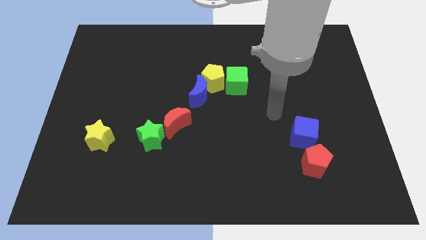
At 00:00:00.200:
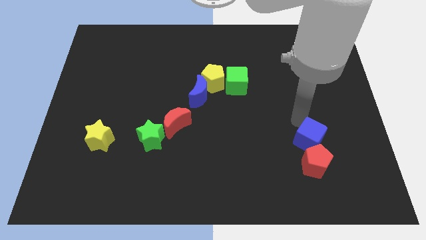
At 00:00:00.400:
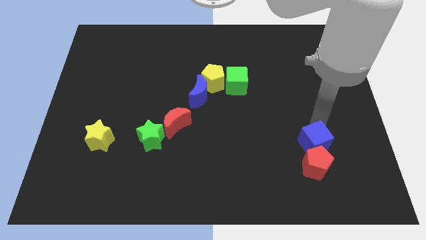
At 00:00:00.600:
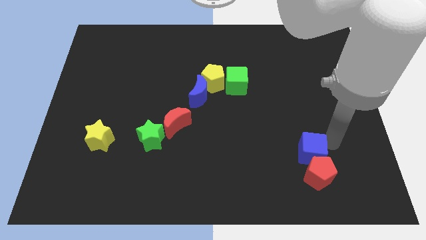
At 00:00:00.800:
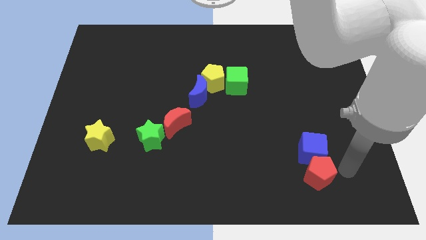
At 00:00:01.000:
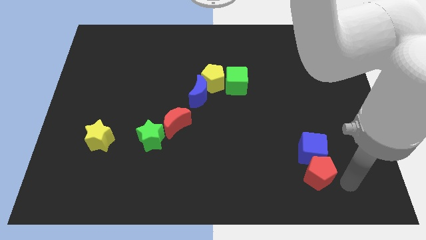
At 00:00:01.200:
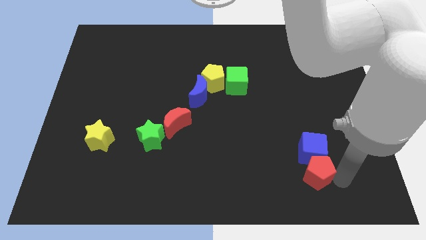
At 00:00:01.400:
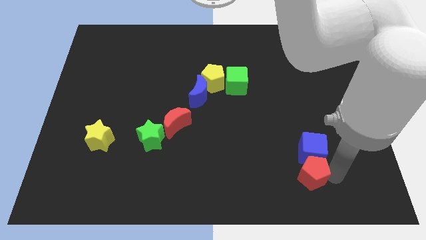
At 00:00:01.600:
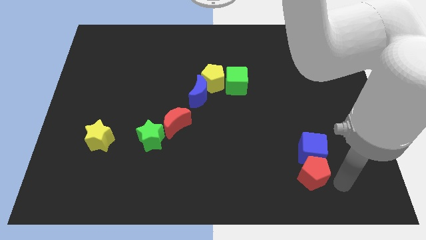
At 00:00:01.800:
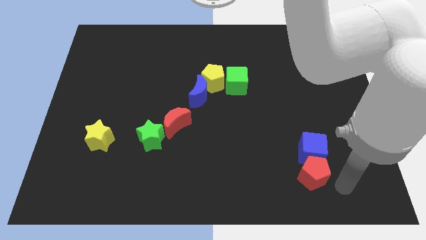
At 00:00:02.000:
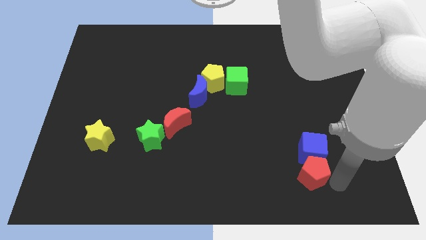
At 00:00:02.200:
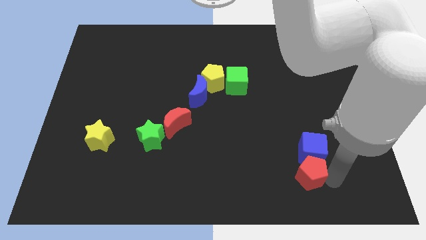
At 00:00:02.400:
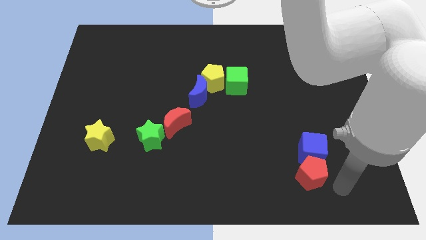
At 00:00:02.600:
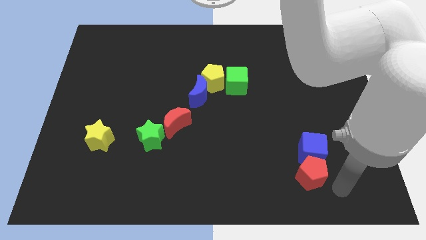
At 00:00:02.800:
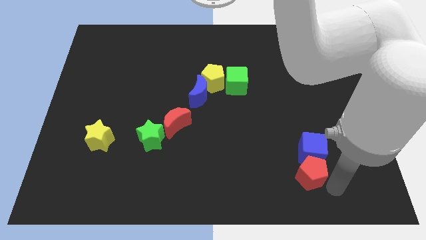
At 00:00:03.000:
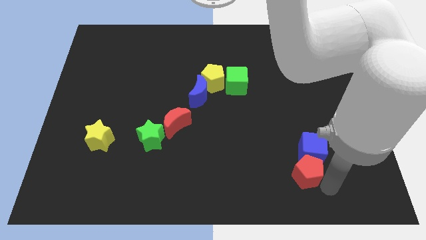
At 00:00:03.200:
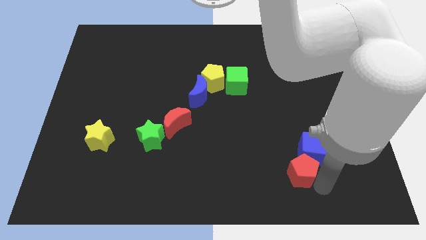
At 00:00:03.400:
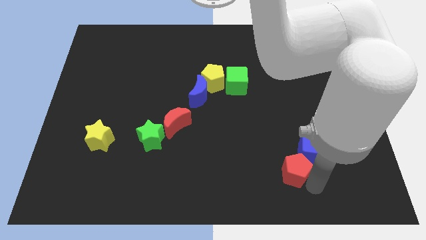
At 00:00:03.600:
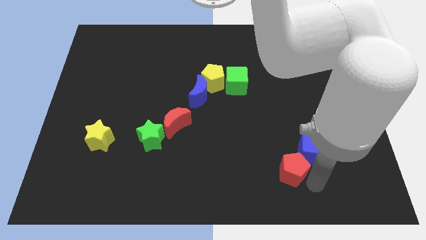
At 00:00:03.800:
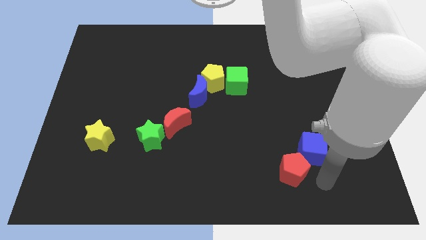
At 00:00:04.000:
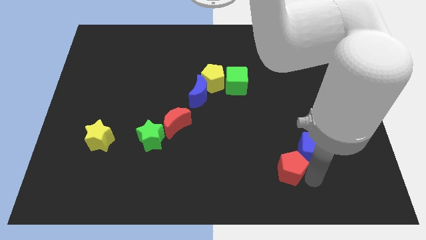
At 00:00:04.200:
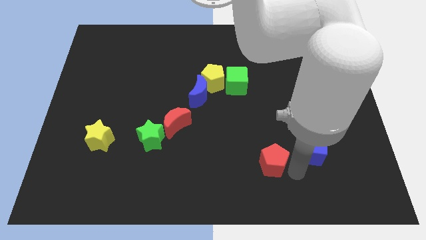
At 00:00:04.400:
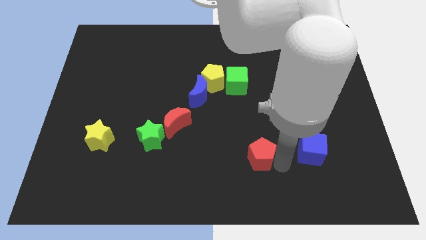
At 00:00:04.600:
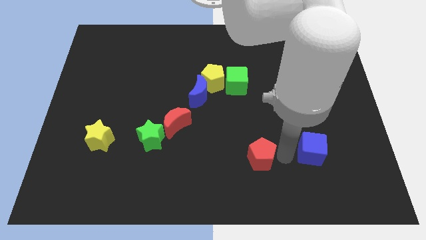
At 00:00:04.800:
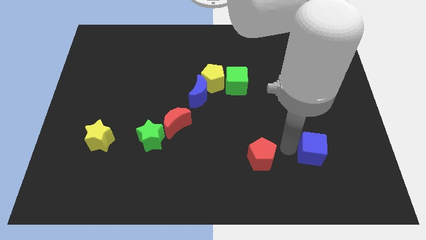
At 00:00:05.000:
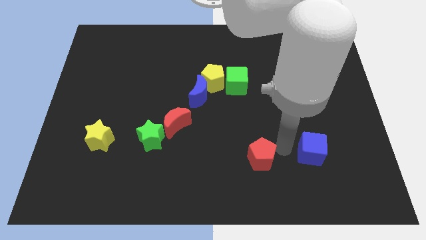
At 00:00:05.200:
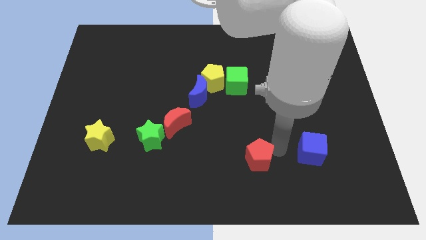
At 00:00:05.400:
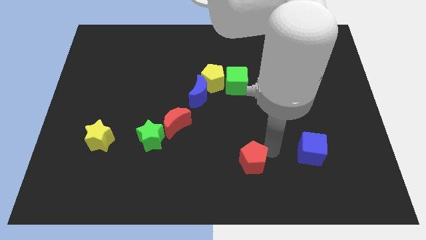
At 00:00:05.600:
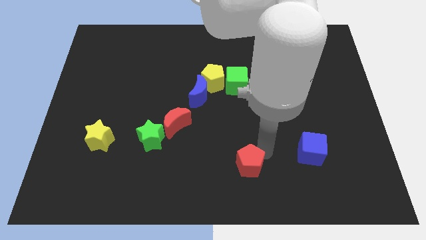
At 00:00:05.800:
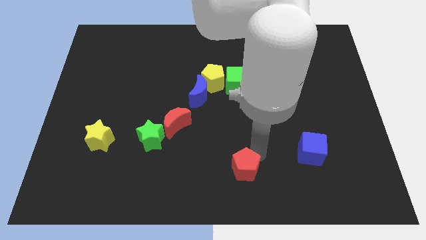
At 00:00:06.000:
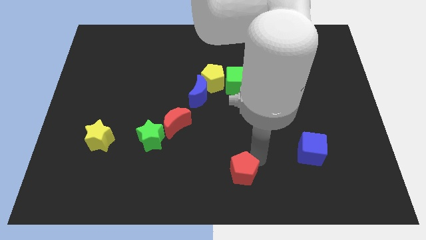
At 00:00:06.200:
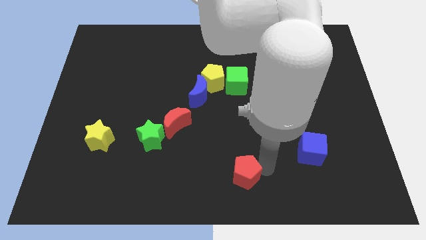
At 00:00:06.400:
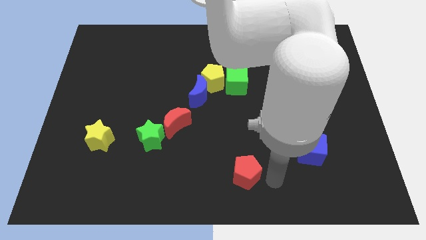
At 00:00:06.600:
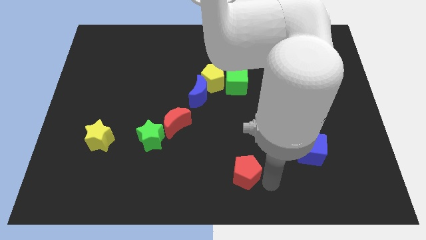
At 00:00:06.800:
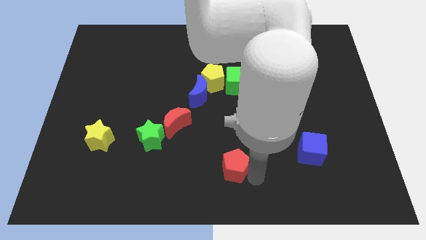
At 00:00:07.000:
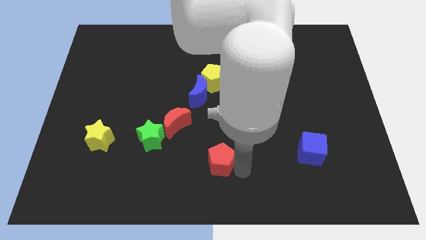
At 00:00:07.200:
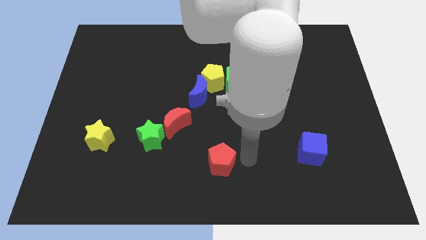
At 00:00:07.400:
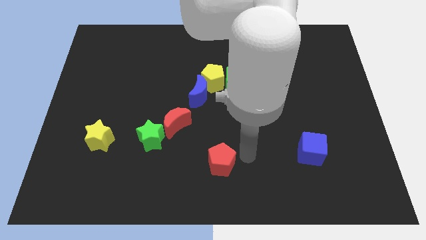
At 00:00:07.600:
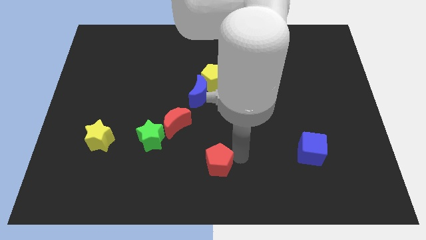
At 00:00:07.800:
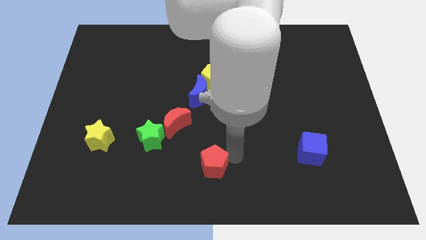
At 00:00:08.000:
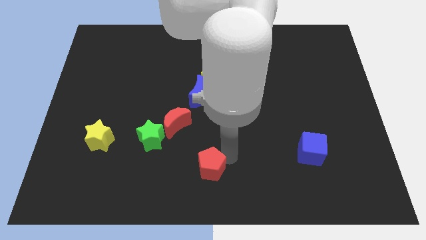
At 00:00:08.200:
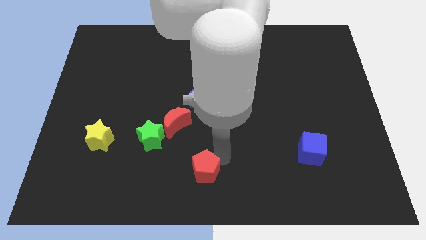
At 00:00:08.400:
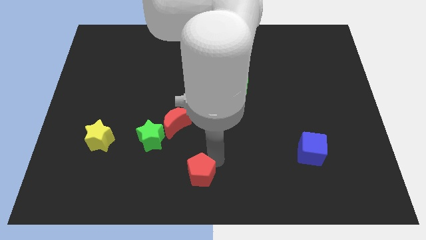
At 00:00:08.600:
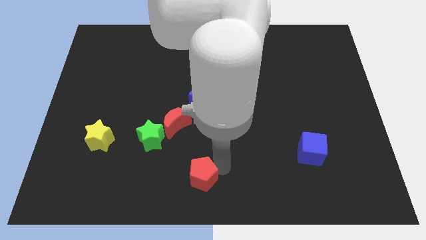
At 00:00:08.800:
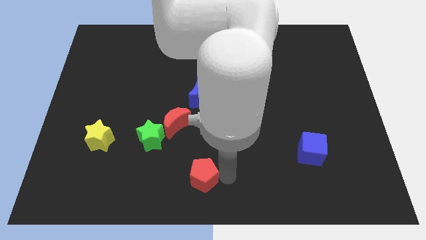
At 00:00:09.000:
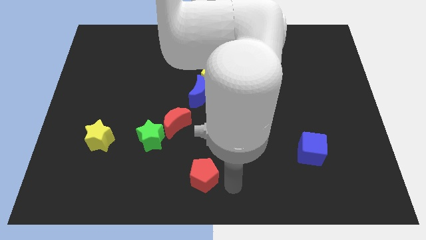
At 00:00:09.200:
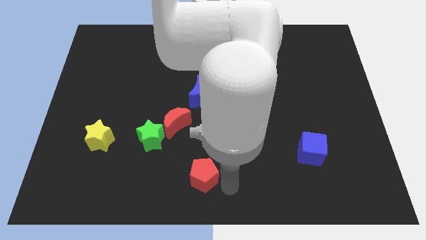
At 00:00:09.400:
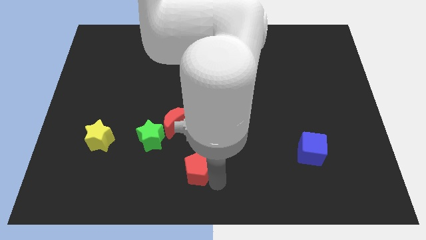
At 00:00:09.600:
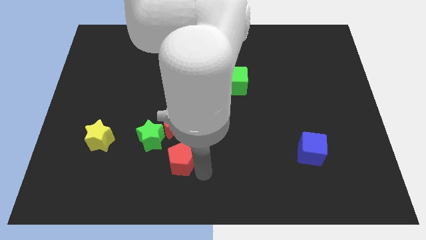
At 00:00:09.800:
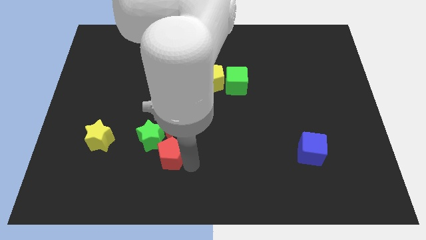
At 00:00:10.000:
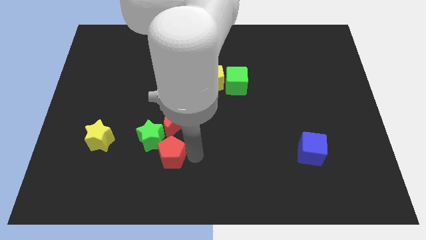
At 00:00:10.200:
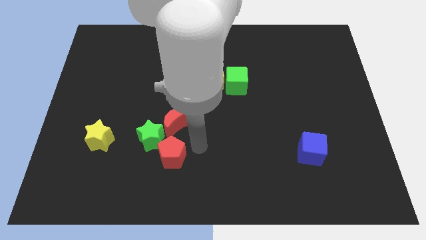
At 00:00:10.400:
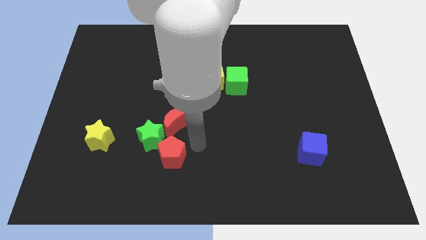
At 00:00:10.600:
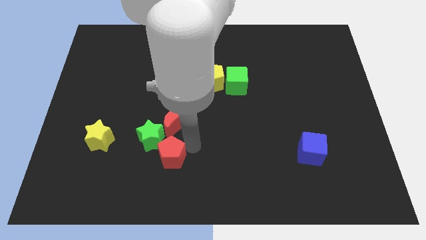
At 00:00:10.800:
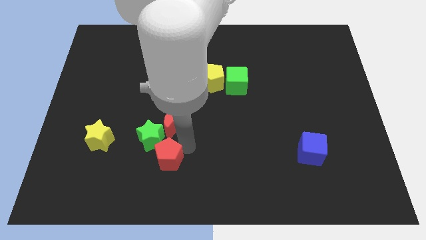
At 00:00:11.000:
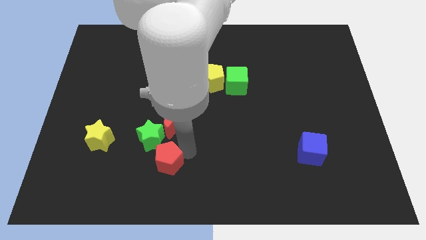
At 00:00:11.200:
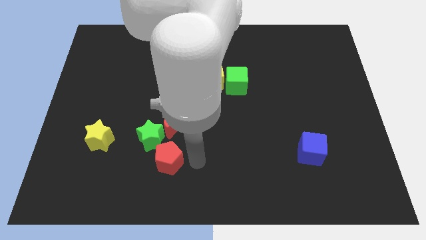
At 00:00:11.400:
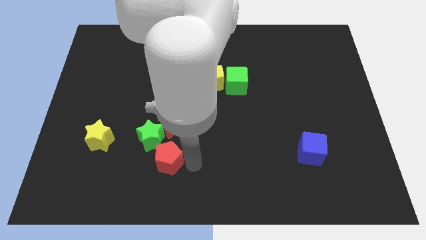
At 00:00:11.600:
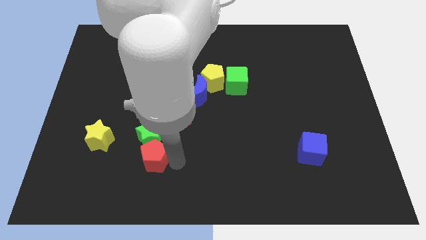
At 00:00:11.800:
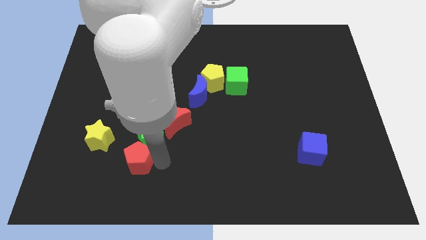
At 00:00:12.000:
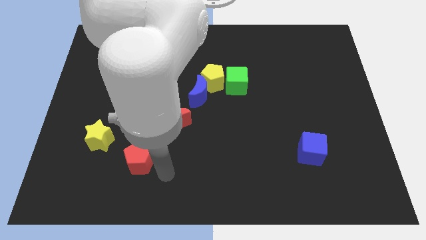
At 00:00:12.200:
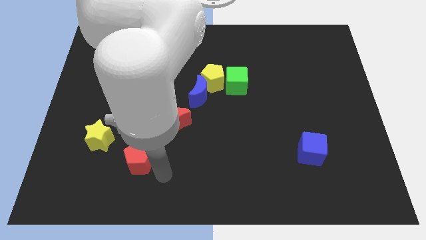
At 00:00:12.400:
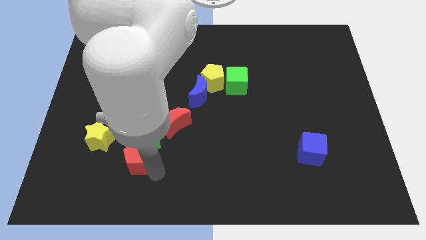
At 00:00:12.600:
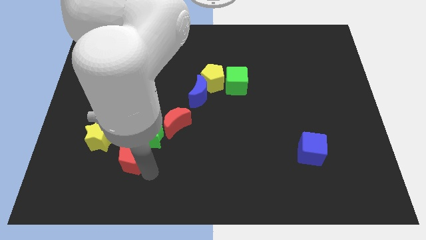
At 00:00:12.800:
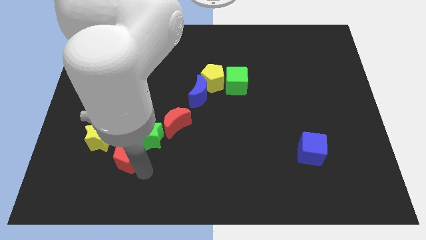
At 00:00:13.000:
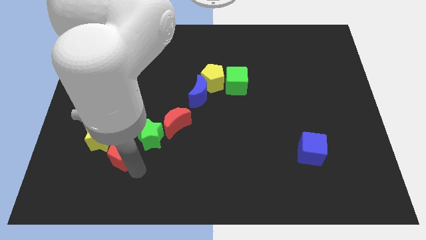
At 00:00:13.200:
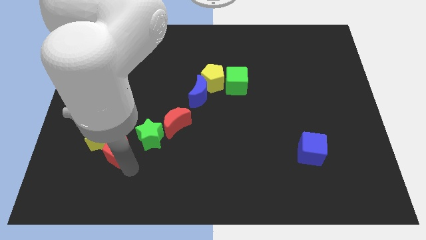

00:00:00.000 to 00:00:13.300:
move the red pentagon to the yellow star
